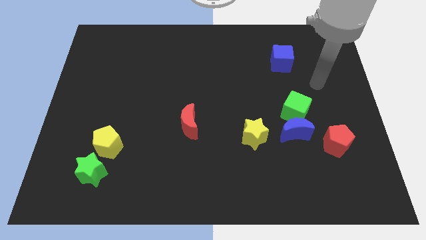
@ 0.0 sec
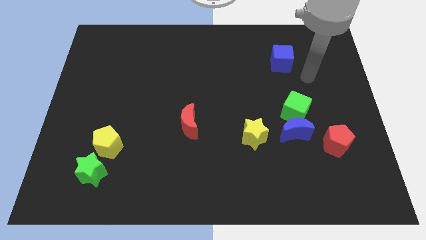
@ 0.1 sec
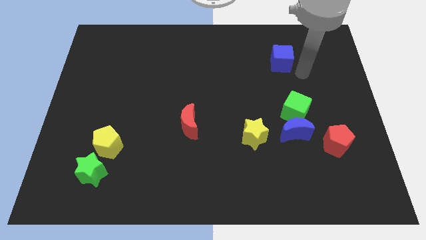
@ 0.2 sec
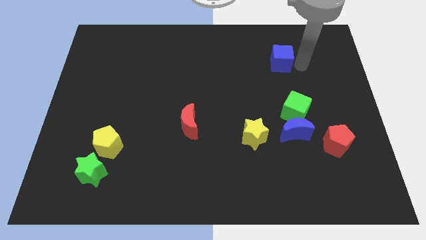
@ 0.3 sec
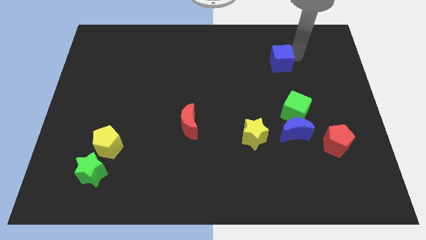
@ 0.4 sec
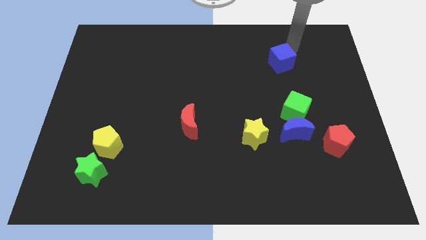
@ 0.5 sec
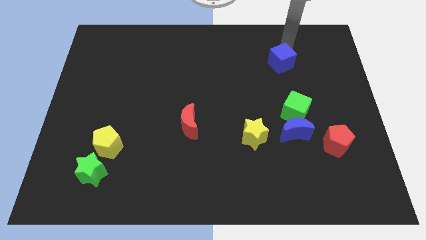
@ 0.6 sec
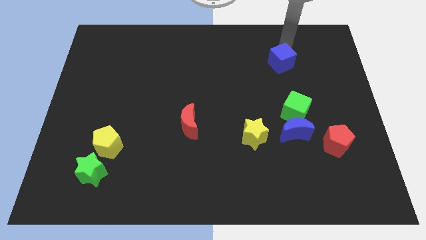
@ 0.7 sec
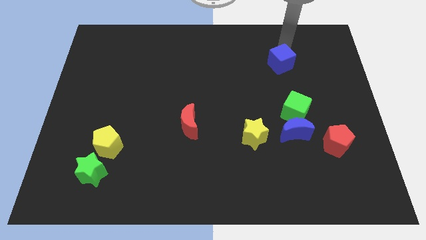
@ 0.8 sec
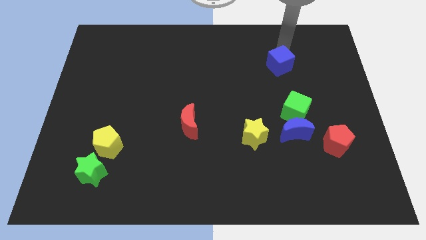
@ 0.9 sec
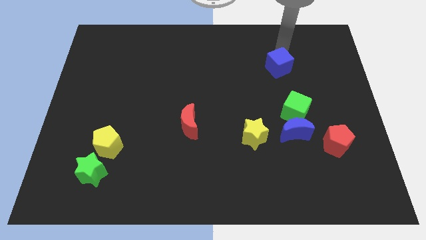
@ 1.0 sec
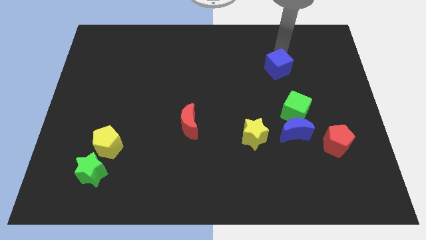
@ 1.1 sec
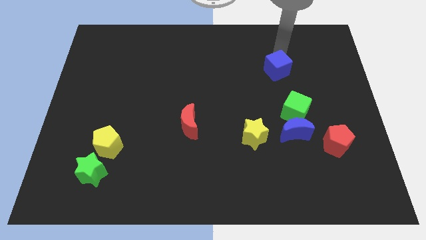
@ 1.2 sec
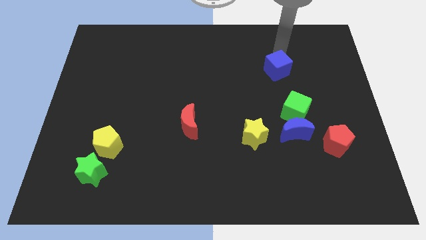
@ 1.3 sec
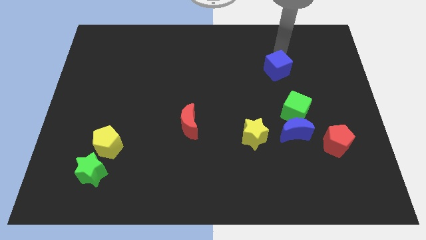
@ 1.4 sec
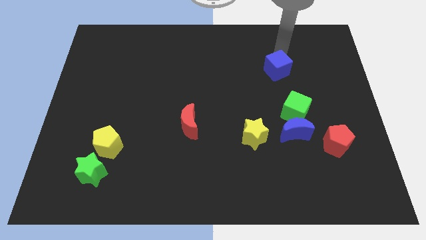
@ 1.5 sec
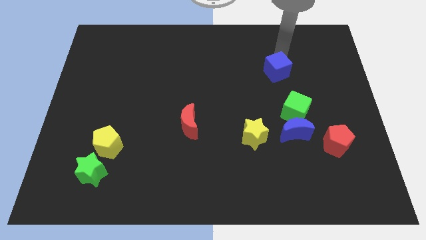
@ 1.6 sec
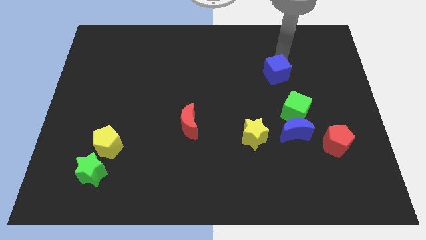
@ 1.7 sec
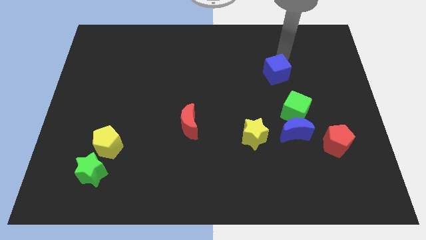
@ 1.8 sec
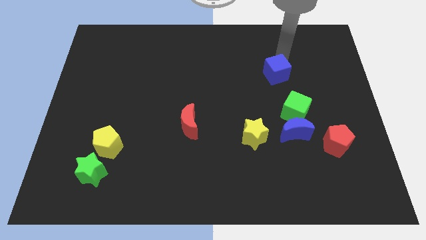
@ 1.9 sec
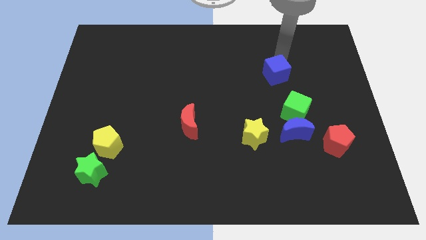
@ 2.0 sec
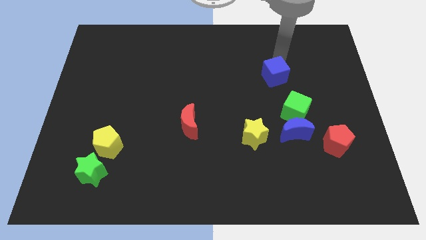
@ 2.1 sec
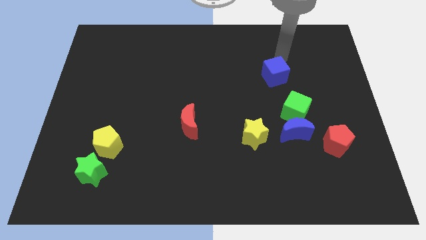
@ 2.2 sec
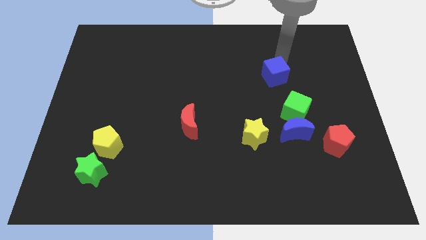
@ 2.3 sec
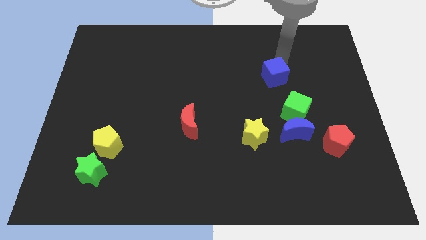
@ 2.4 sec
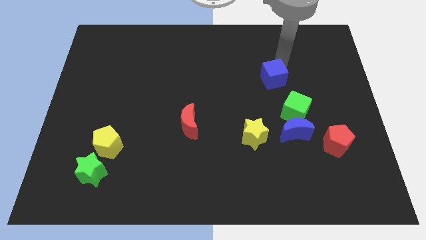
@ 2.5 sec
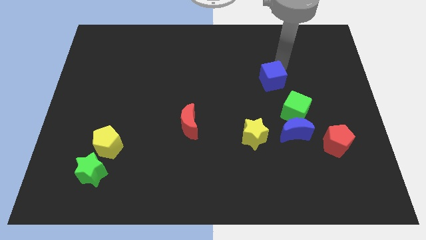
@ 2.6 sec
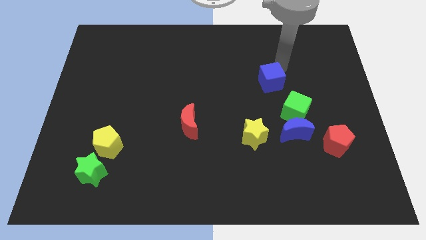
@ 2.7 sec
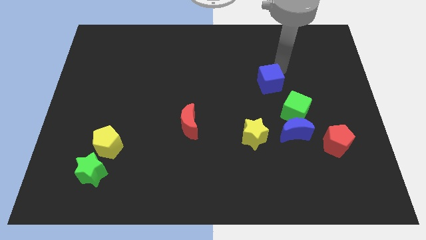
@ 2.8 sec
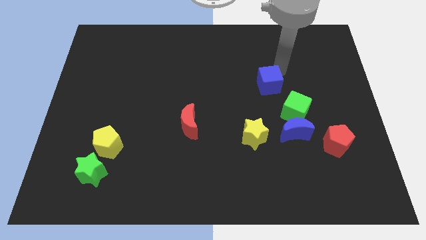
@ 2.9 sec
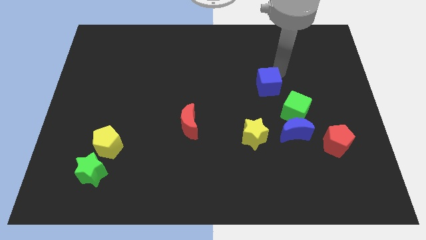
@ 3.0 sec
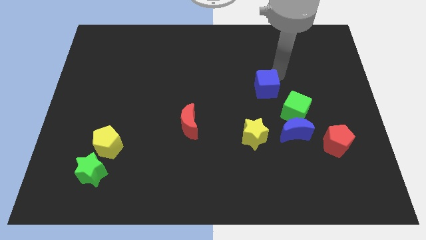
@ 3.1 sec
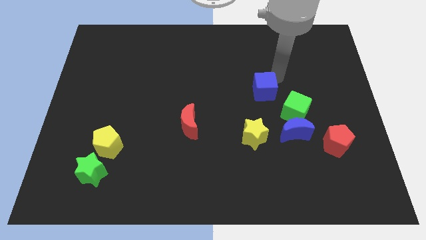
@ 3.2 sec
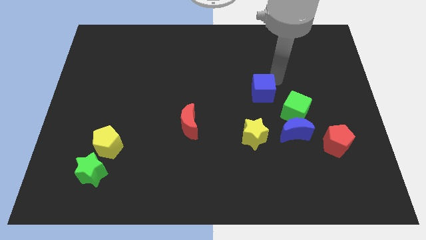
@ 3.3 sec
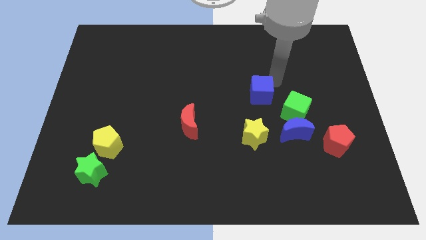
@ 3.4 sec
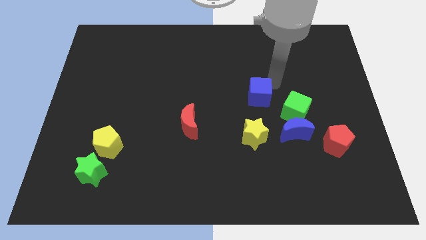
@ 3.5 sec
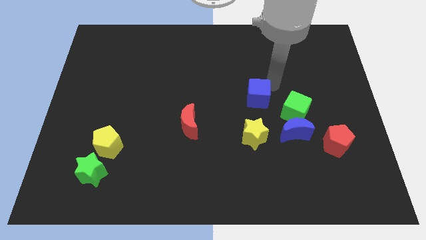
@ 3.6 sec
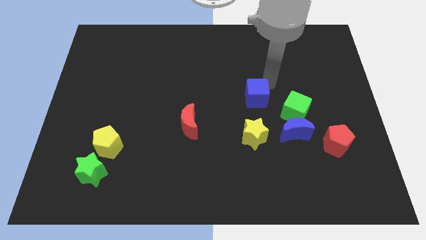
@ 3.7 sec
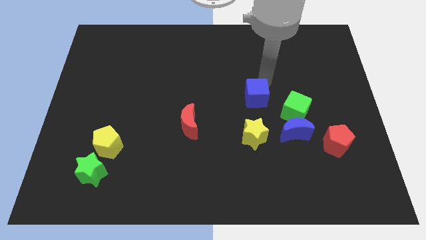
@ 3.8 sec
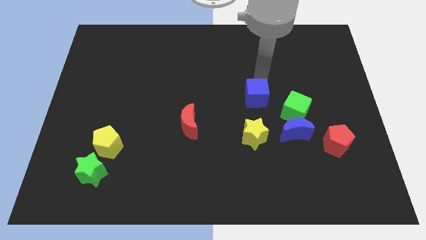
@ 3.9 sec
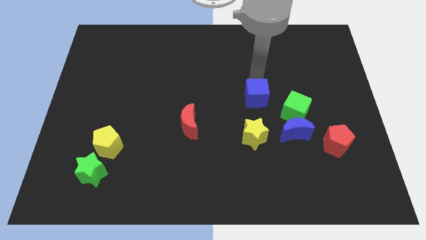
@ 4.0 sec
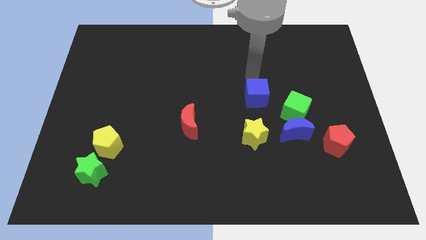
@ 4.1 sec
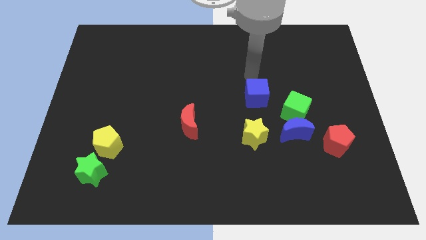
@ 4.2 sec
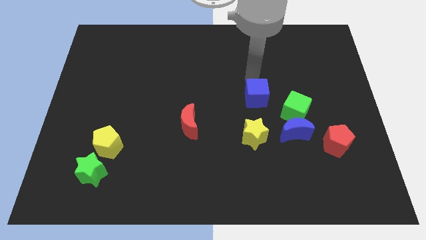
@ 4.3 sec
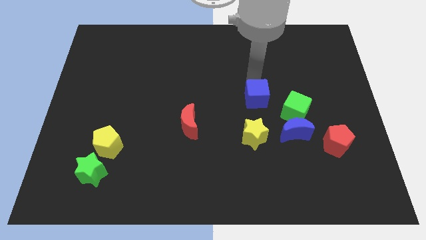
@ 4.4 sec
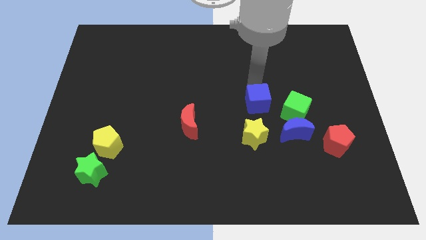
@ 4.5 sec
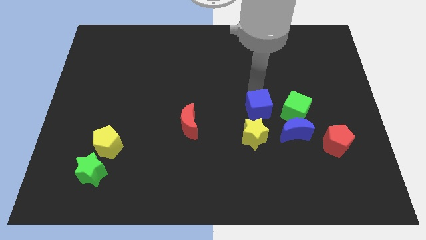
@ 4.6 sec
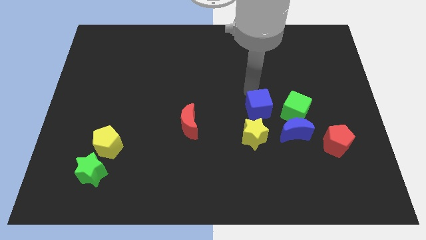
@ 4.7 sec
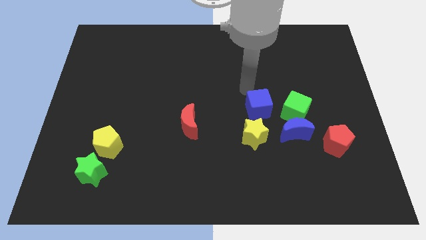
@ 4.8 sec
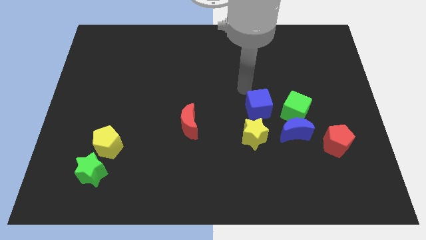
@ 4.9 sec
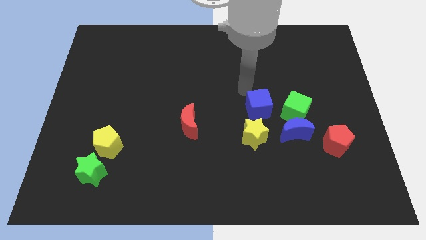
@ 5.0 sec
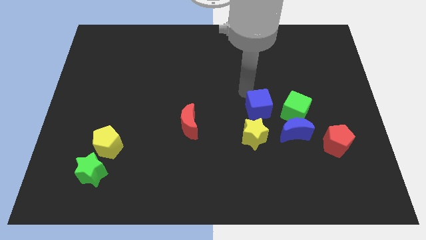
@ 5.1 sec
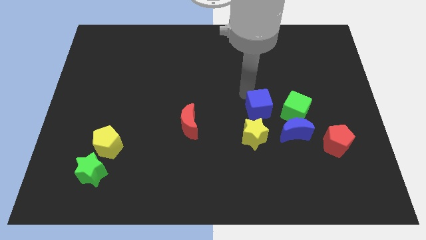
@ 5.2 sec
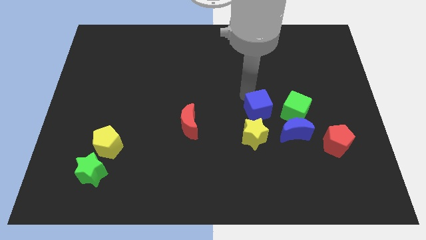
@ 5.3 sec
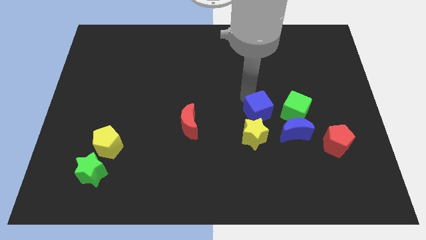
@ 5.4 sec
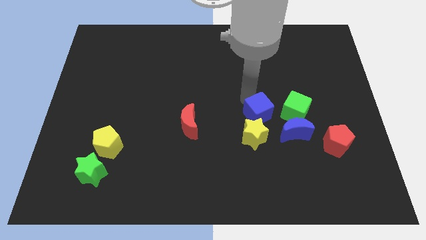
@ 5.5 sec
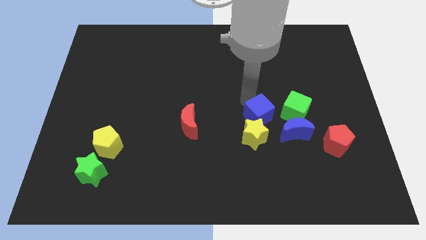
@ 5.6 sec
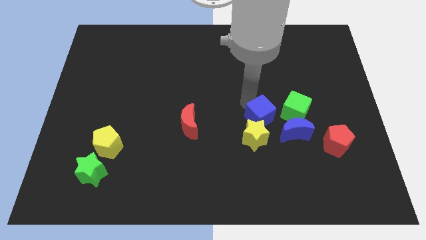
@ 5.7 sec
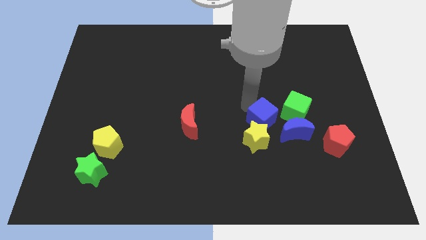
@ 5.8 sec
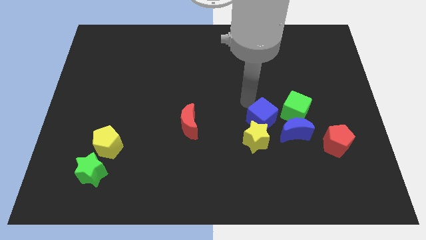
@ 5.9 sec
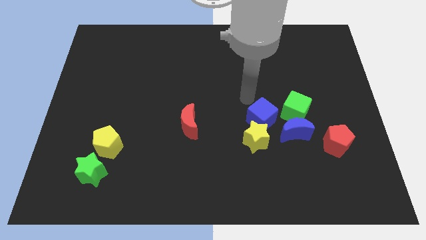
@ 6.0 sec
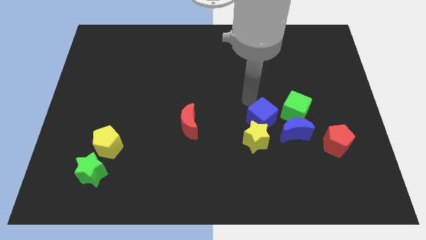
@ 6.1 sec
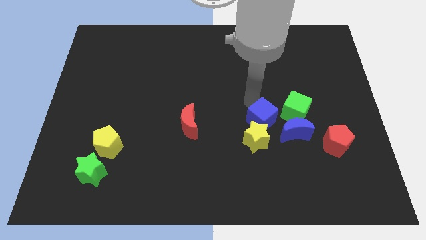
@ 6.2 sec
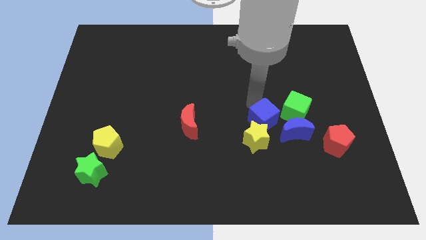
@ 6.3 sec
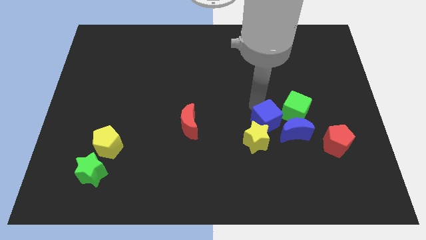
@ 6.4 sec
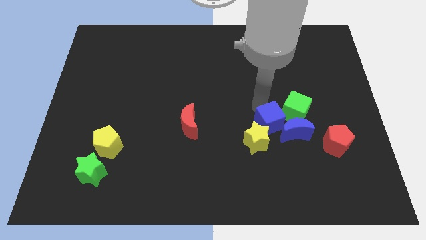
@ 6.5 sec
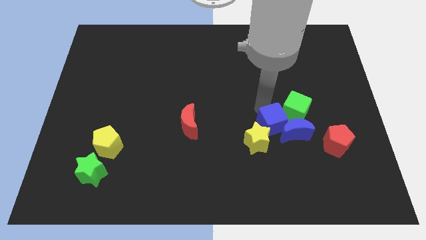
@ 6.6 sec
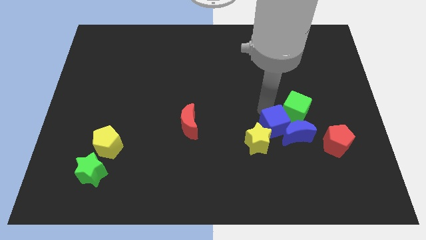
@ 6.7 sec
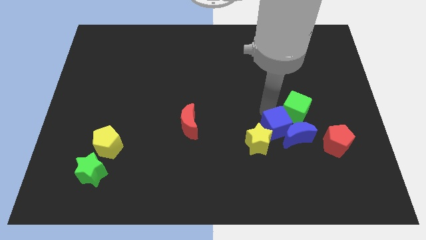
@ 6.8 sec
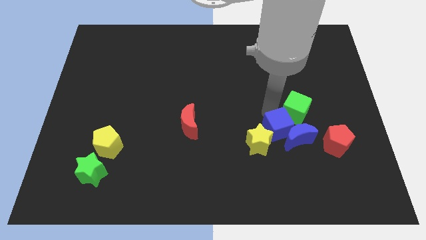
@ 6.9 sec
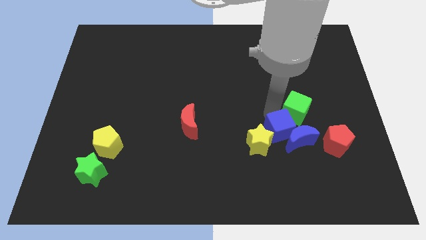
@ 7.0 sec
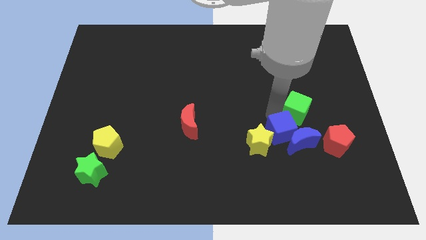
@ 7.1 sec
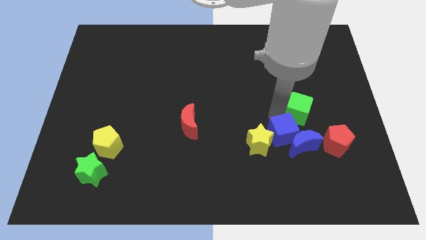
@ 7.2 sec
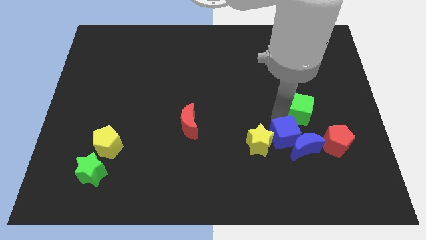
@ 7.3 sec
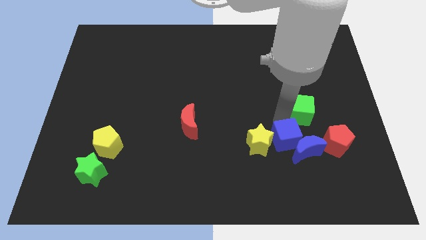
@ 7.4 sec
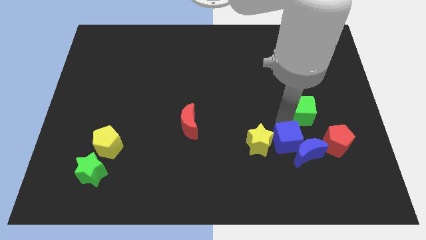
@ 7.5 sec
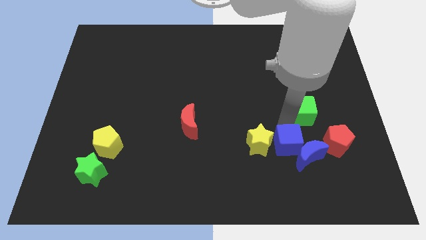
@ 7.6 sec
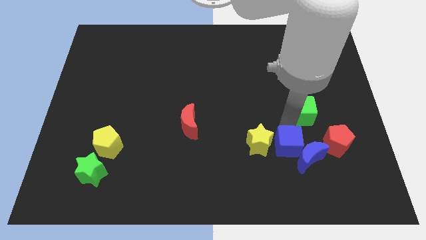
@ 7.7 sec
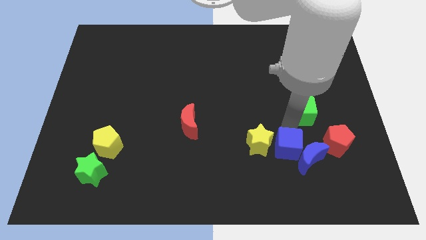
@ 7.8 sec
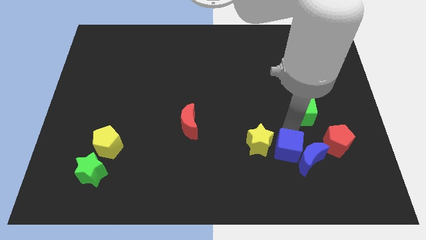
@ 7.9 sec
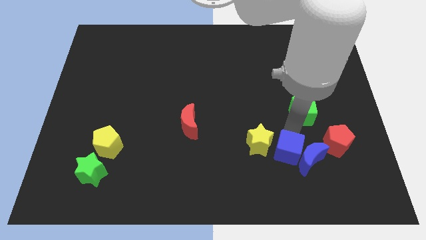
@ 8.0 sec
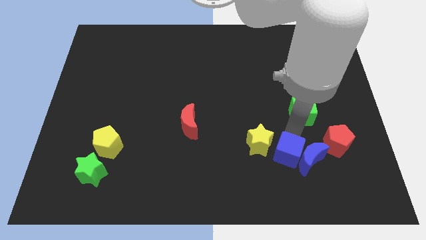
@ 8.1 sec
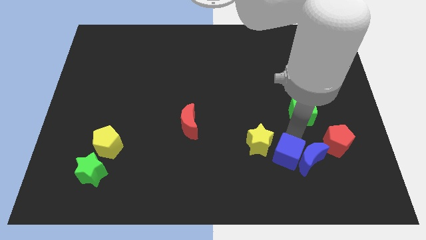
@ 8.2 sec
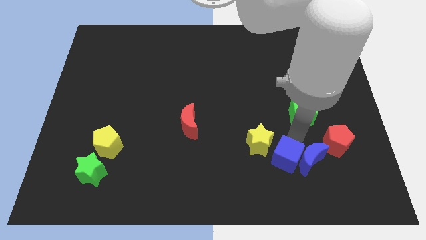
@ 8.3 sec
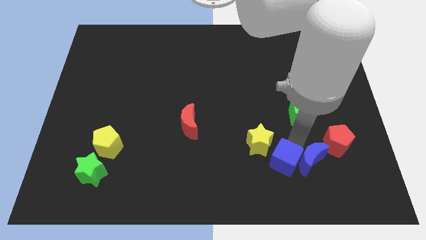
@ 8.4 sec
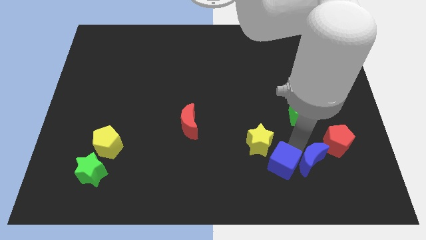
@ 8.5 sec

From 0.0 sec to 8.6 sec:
put the blue cube to the bottom side of the yellow star
